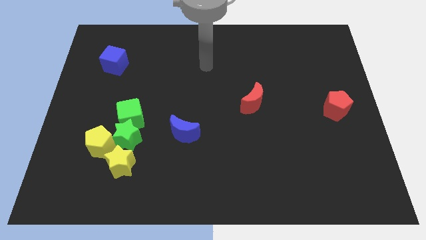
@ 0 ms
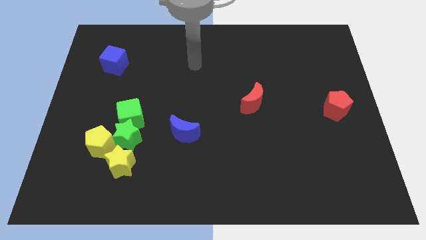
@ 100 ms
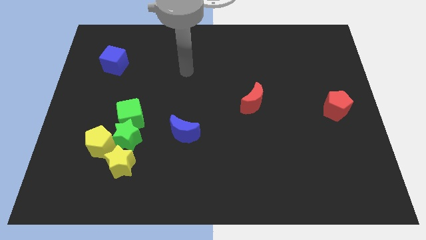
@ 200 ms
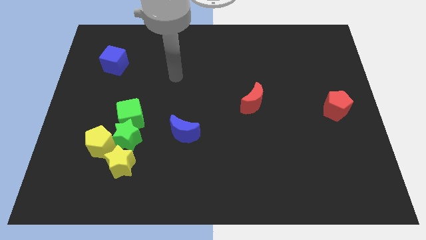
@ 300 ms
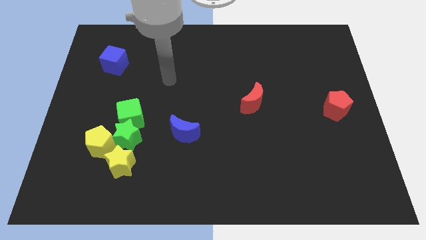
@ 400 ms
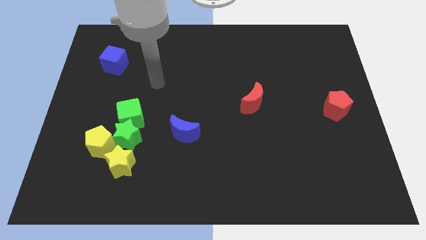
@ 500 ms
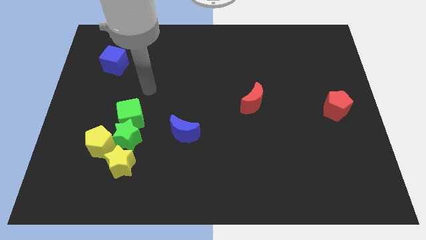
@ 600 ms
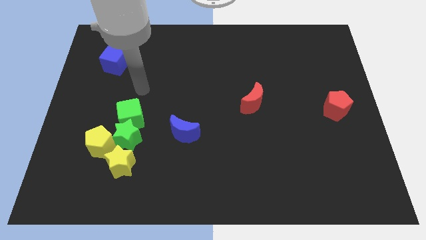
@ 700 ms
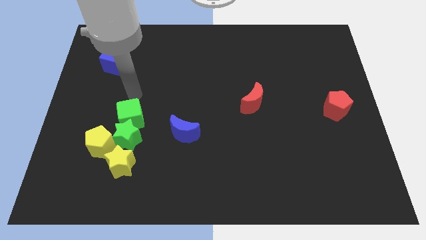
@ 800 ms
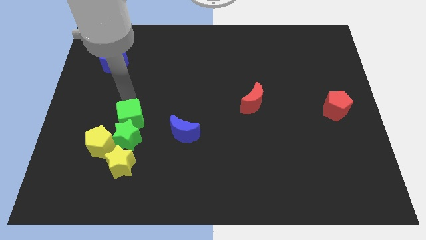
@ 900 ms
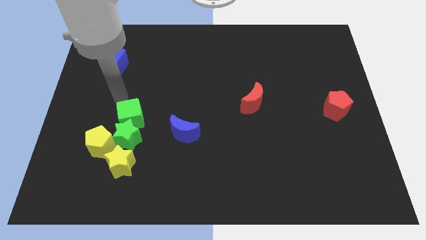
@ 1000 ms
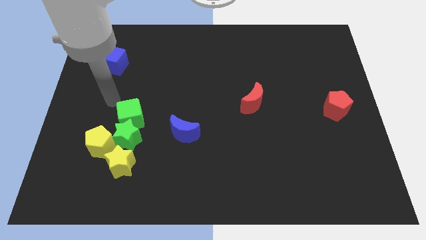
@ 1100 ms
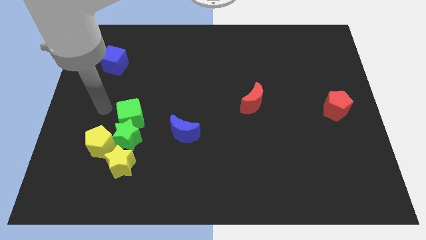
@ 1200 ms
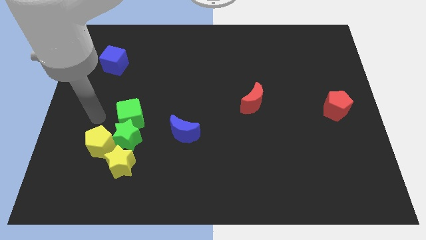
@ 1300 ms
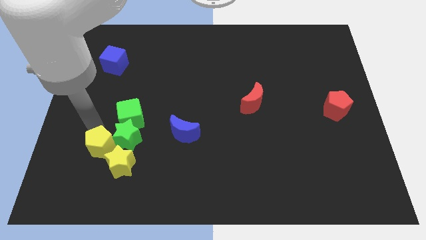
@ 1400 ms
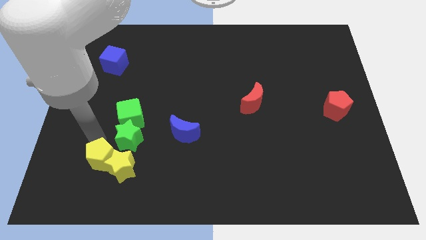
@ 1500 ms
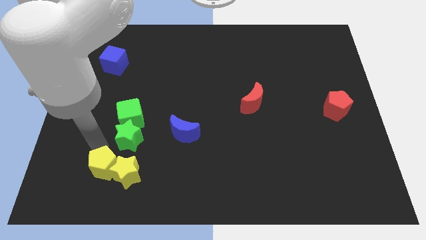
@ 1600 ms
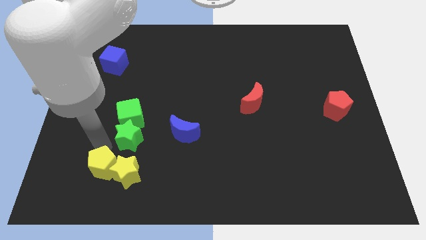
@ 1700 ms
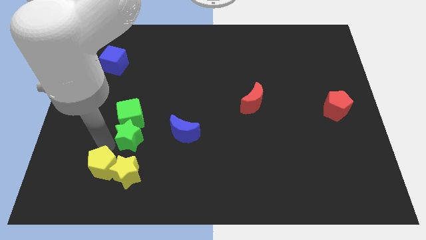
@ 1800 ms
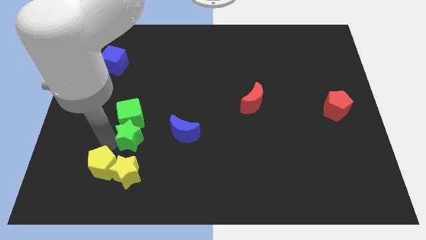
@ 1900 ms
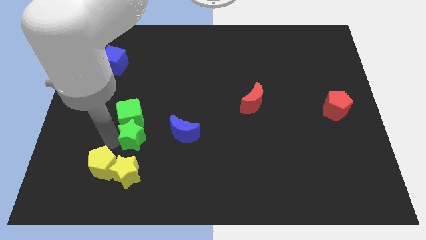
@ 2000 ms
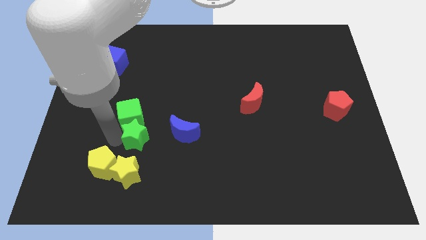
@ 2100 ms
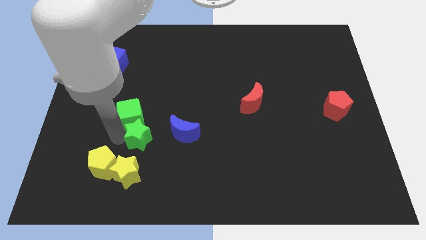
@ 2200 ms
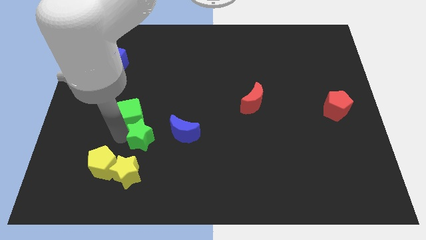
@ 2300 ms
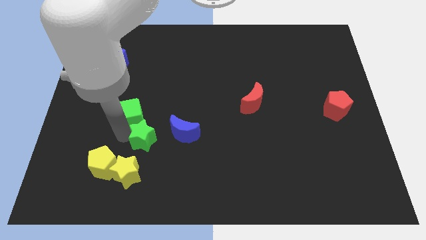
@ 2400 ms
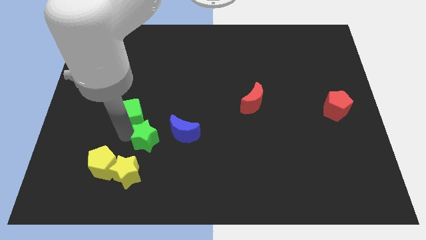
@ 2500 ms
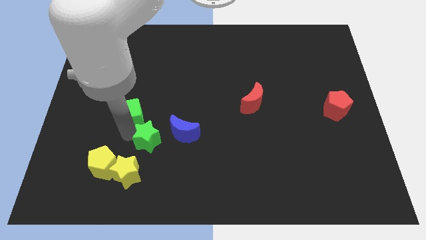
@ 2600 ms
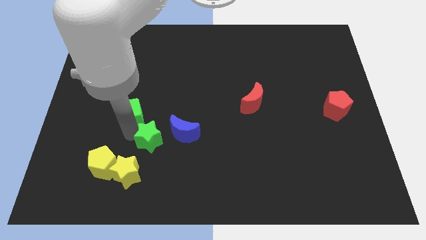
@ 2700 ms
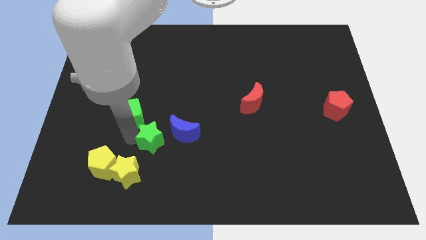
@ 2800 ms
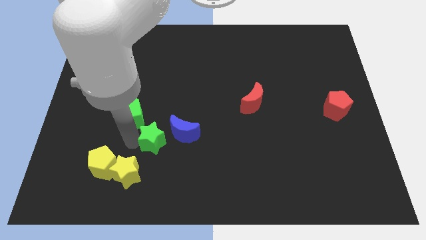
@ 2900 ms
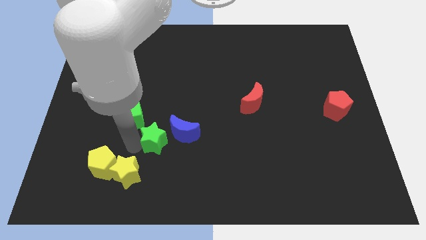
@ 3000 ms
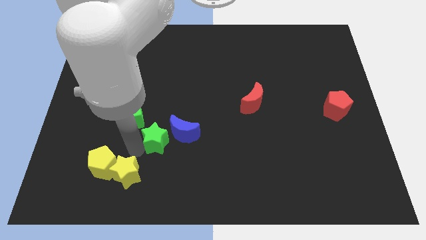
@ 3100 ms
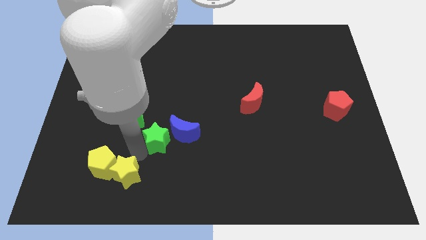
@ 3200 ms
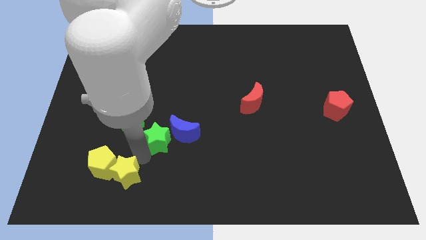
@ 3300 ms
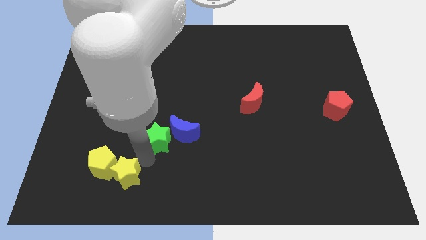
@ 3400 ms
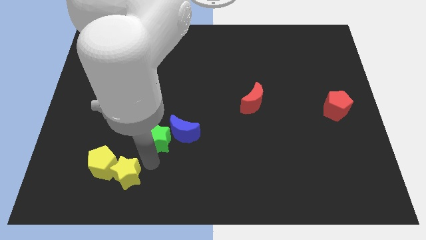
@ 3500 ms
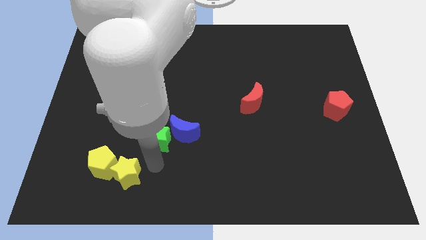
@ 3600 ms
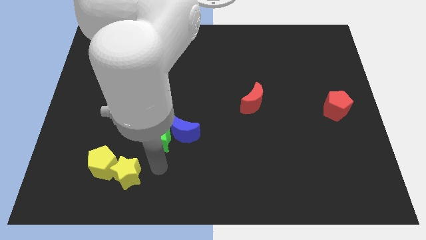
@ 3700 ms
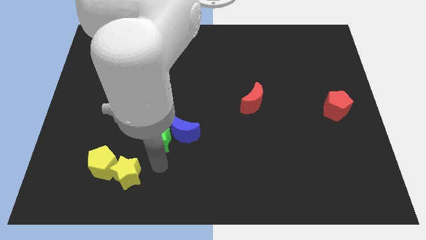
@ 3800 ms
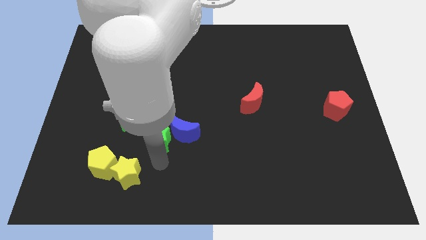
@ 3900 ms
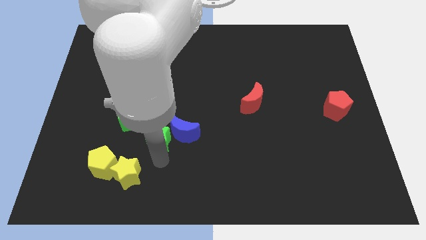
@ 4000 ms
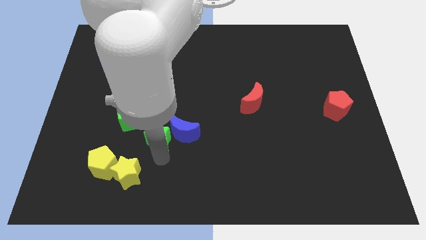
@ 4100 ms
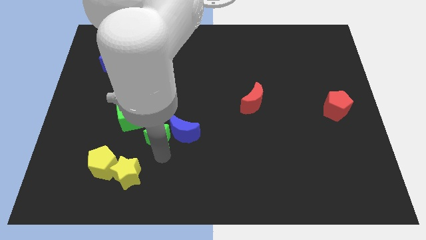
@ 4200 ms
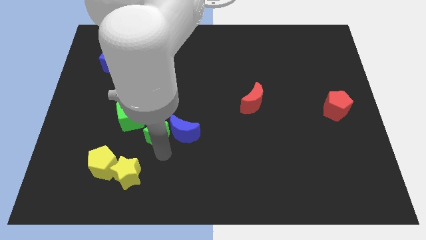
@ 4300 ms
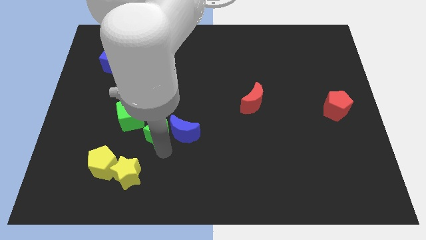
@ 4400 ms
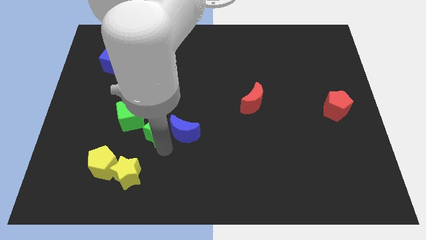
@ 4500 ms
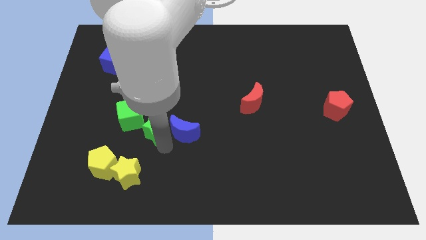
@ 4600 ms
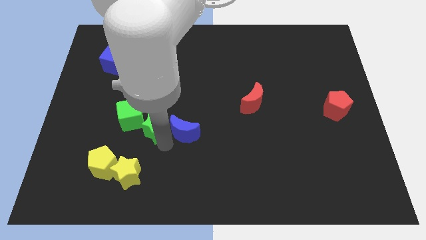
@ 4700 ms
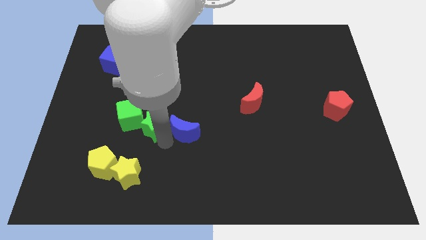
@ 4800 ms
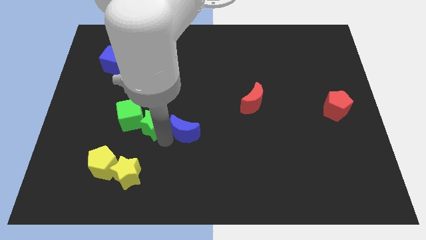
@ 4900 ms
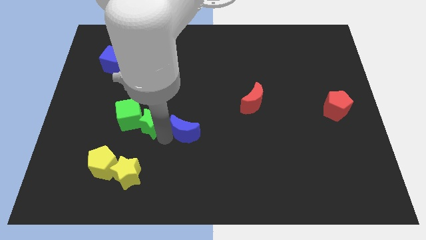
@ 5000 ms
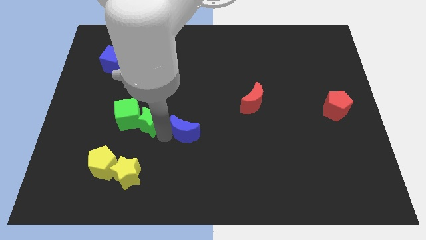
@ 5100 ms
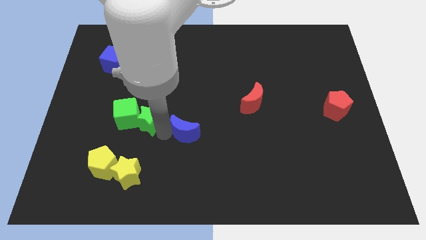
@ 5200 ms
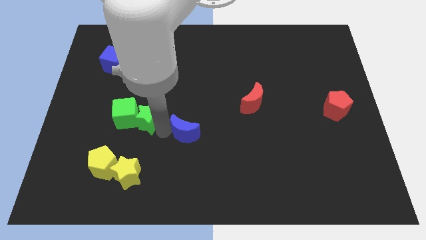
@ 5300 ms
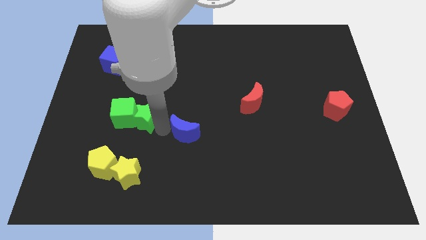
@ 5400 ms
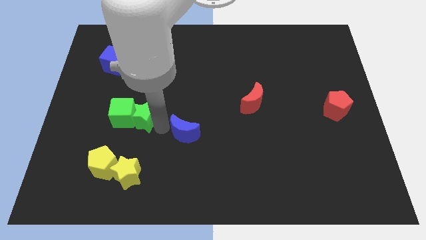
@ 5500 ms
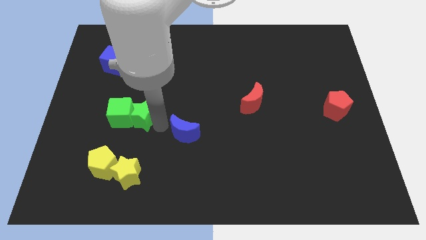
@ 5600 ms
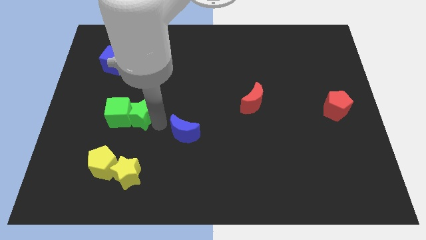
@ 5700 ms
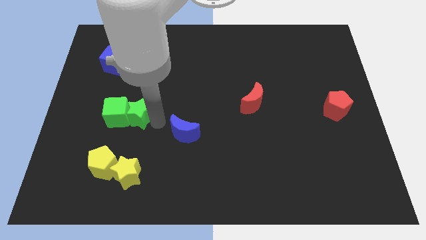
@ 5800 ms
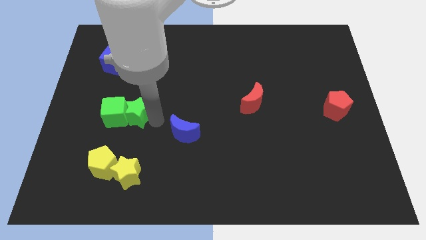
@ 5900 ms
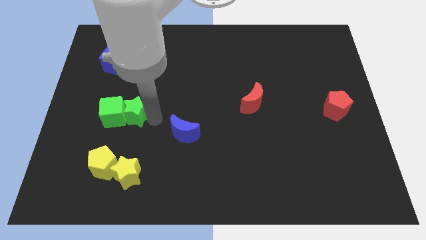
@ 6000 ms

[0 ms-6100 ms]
separate the green star from the group of blocks

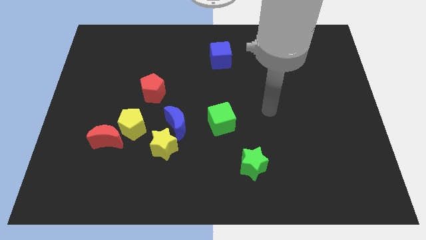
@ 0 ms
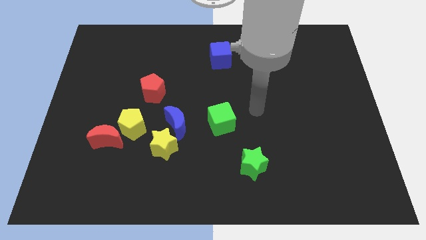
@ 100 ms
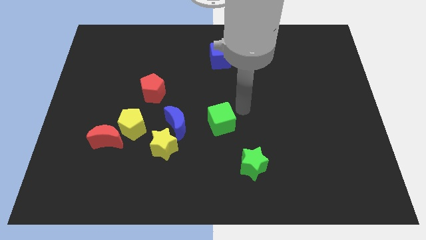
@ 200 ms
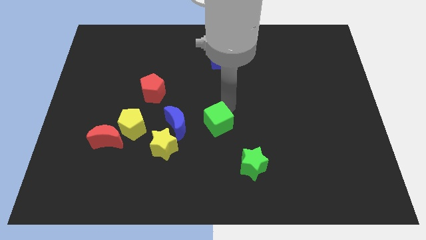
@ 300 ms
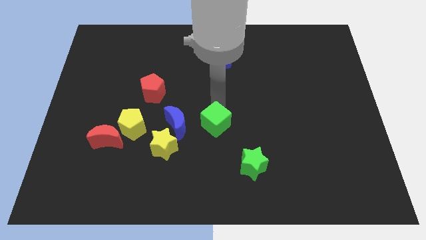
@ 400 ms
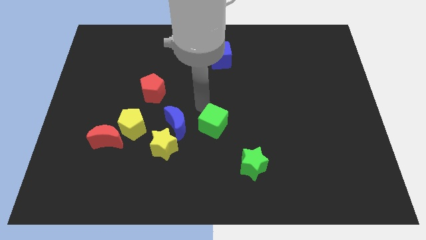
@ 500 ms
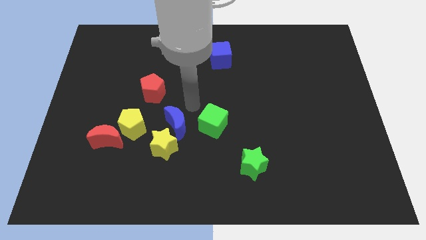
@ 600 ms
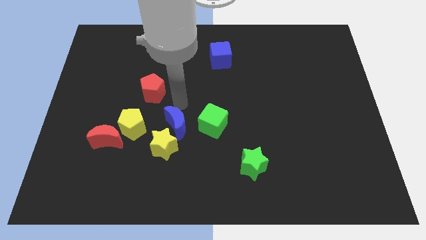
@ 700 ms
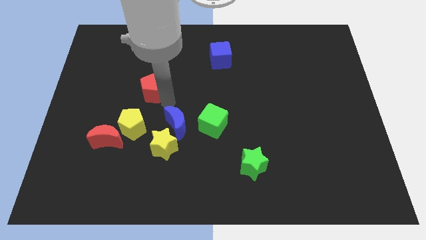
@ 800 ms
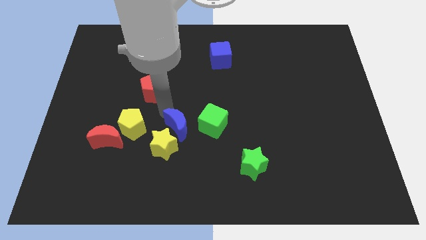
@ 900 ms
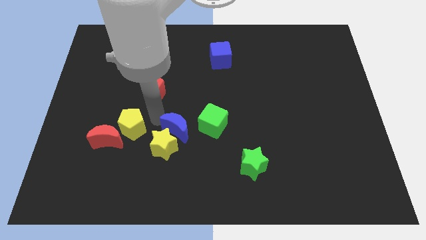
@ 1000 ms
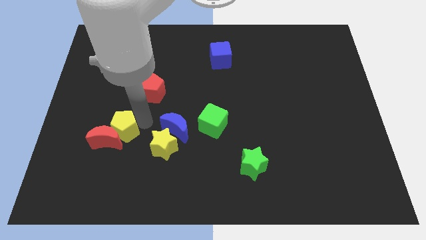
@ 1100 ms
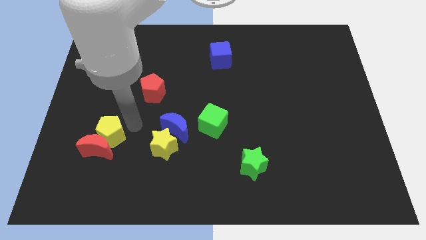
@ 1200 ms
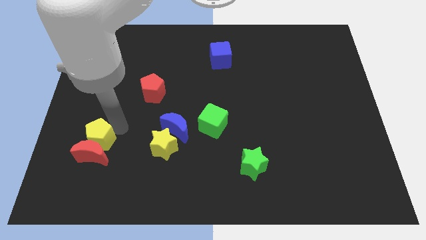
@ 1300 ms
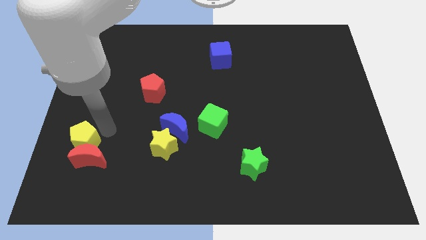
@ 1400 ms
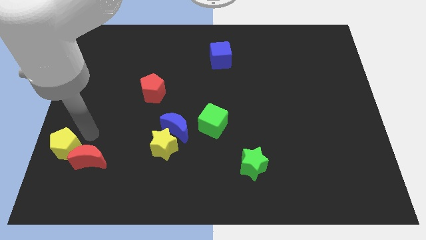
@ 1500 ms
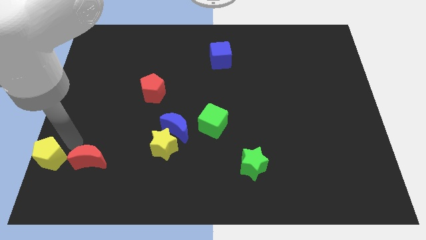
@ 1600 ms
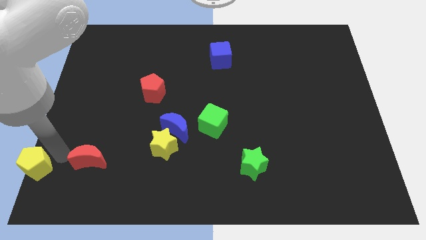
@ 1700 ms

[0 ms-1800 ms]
move the red moon away from the yellow pentagon

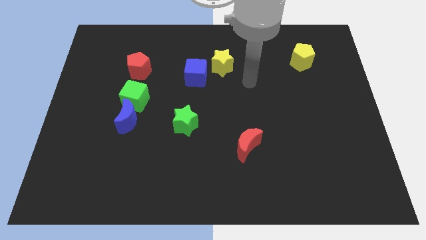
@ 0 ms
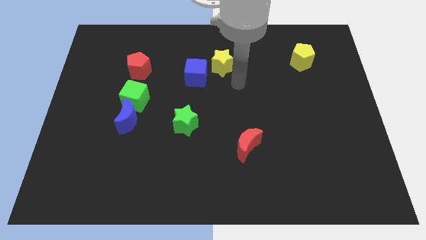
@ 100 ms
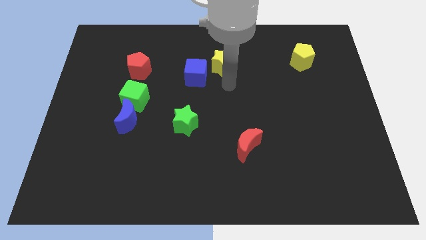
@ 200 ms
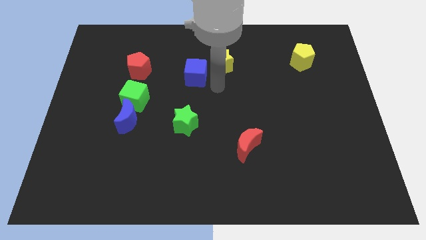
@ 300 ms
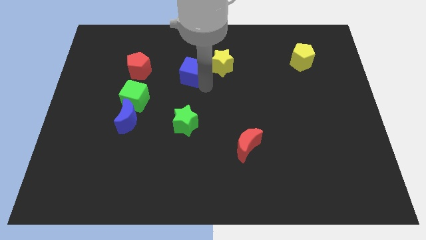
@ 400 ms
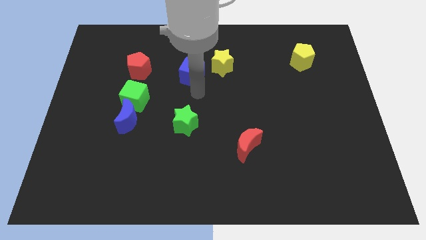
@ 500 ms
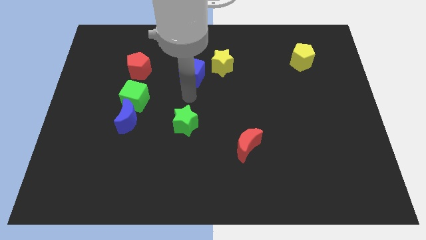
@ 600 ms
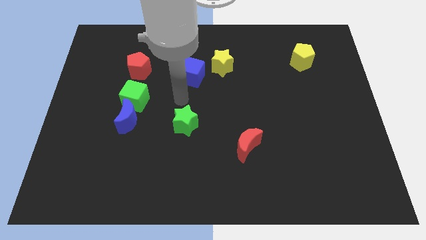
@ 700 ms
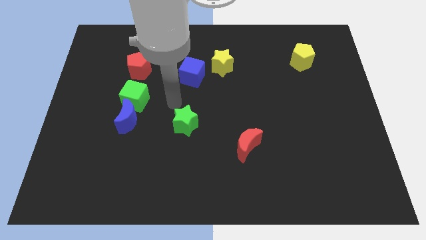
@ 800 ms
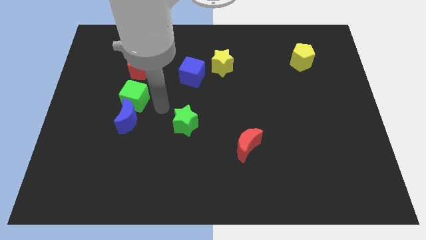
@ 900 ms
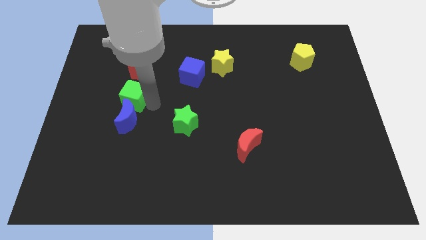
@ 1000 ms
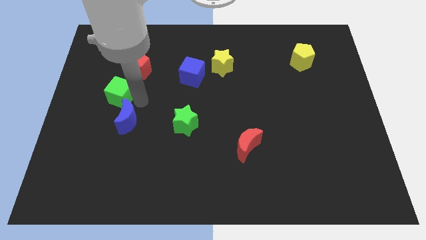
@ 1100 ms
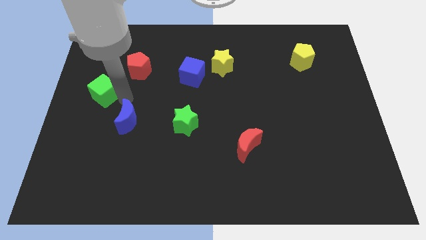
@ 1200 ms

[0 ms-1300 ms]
move the blue moon away from the green cube
